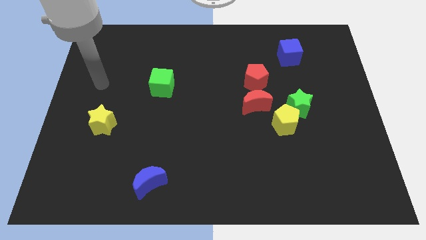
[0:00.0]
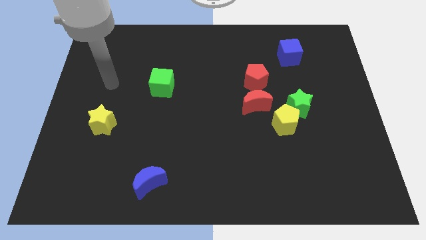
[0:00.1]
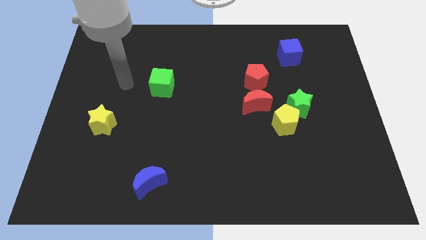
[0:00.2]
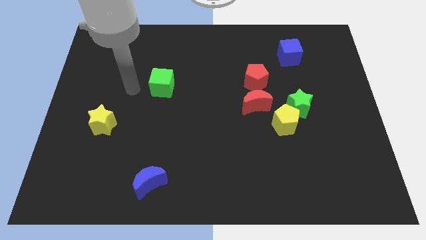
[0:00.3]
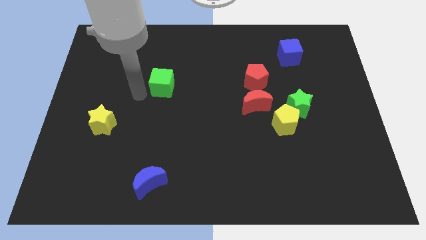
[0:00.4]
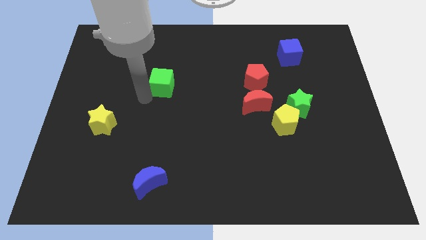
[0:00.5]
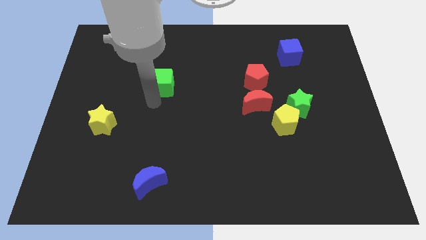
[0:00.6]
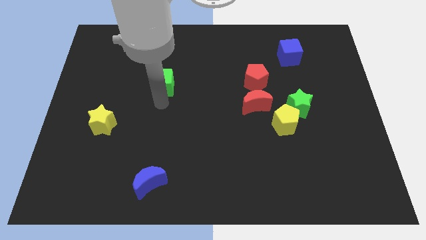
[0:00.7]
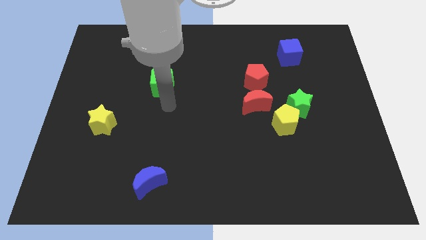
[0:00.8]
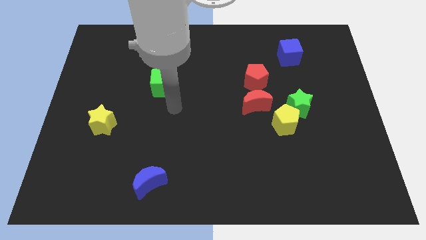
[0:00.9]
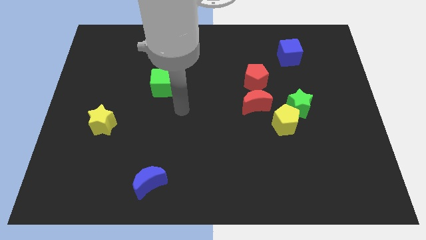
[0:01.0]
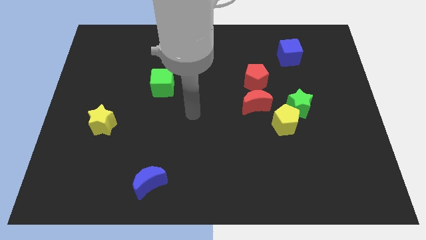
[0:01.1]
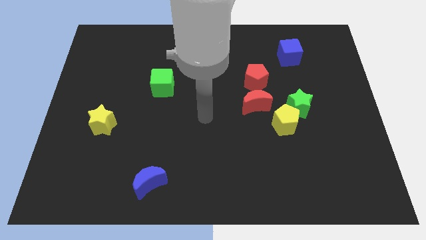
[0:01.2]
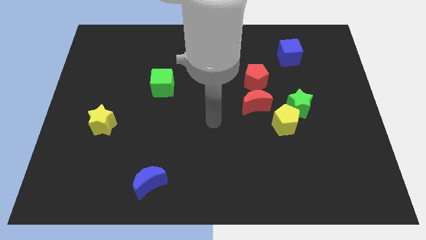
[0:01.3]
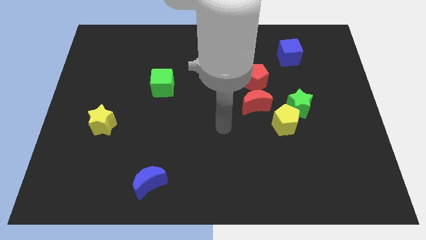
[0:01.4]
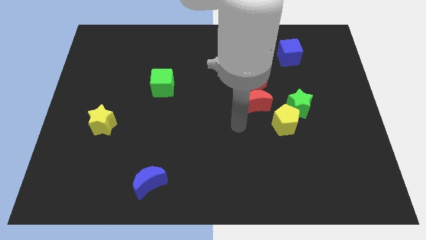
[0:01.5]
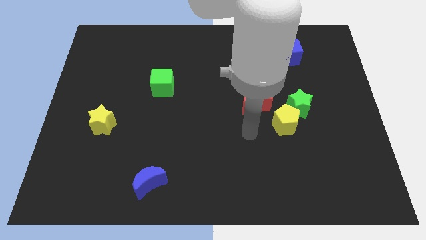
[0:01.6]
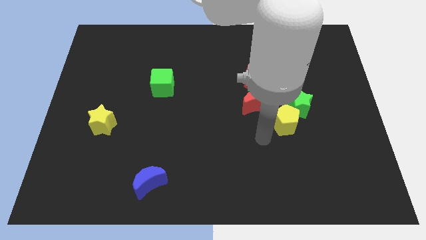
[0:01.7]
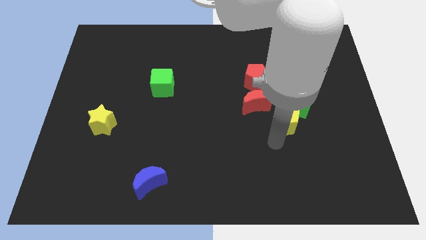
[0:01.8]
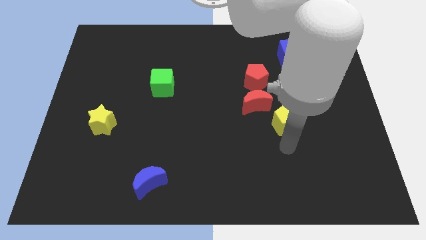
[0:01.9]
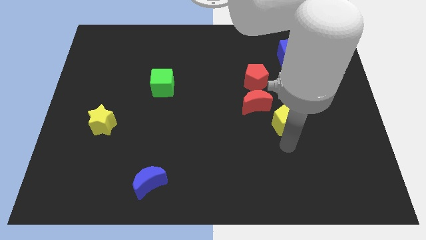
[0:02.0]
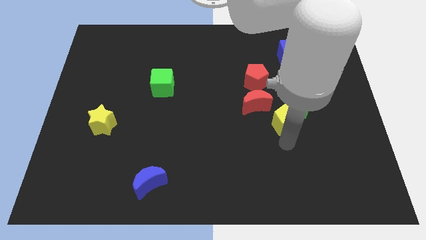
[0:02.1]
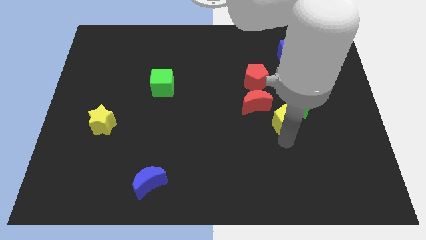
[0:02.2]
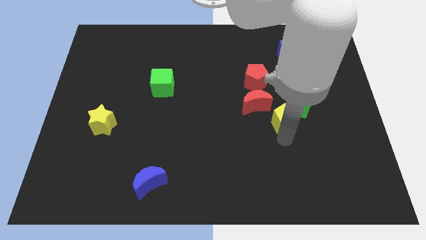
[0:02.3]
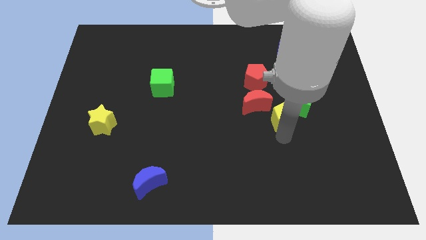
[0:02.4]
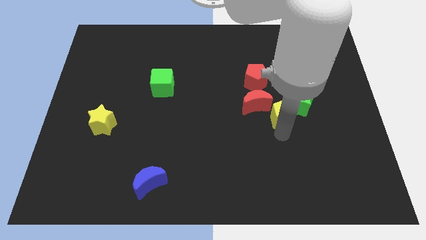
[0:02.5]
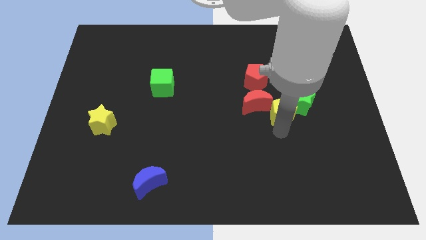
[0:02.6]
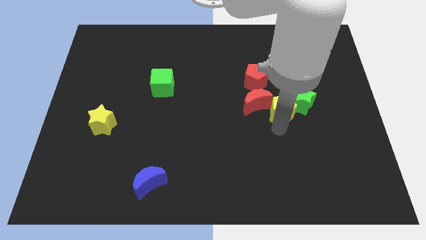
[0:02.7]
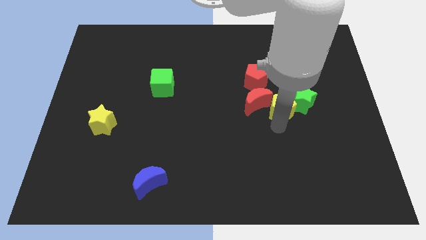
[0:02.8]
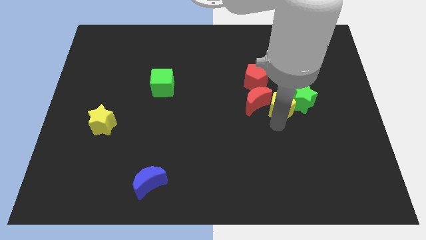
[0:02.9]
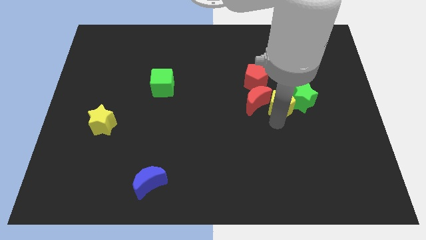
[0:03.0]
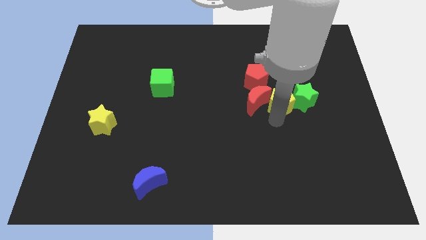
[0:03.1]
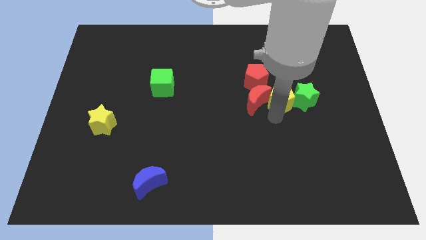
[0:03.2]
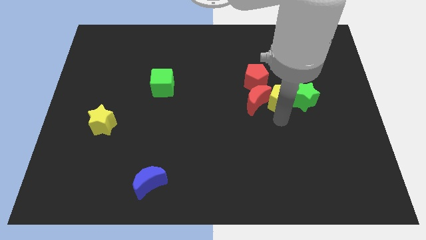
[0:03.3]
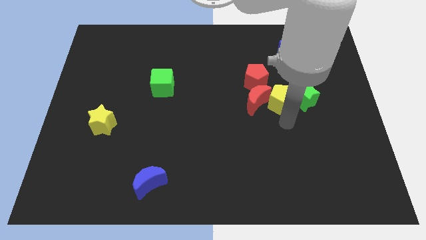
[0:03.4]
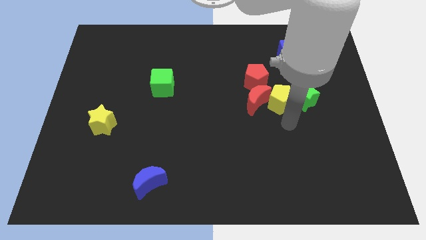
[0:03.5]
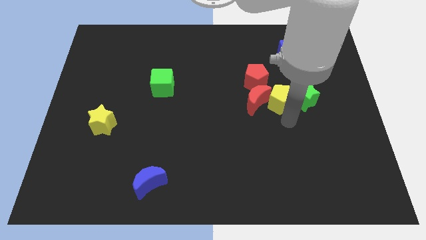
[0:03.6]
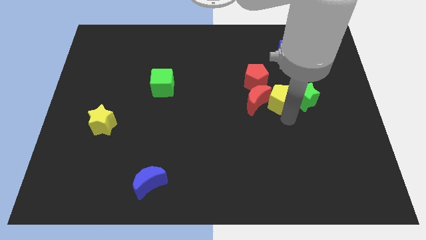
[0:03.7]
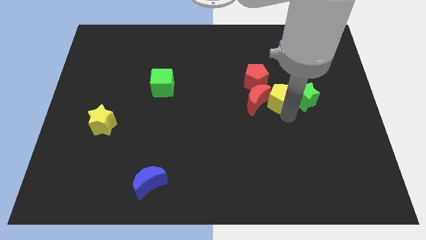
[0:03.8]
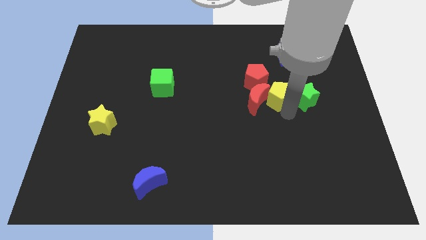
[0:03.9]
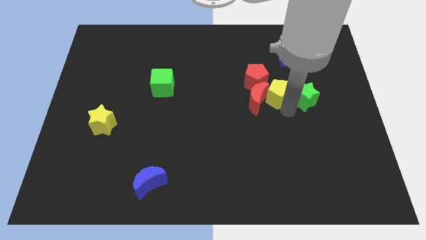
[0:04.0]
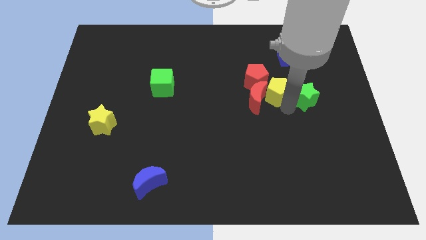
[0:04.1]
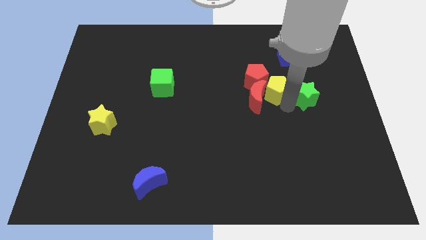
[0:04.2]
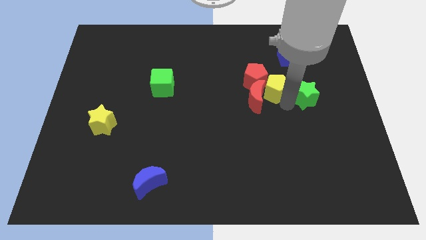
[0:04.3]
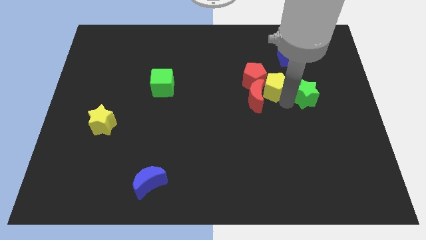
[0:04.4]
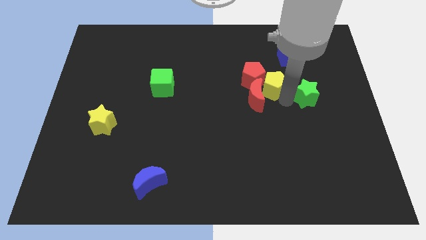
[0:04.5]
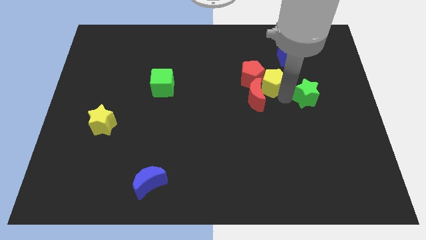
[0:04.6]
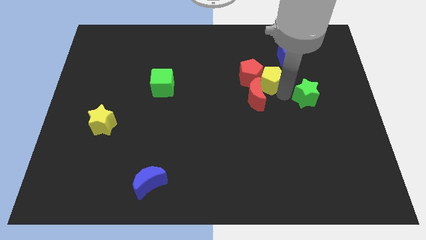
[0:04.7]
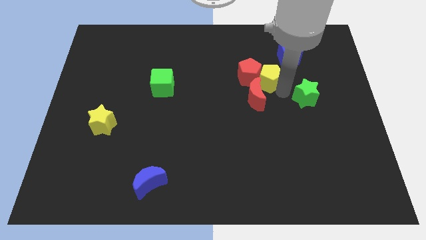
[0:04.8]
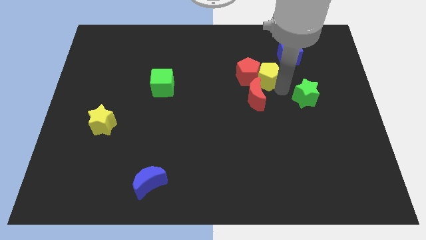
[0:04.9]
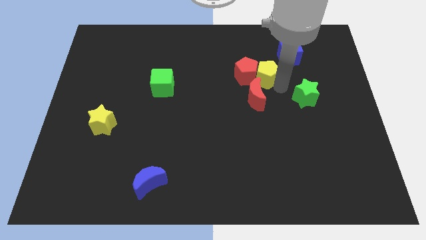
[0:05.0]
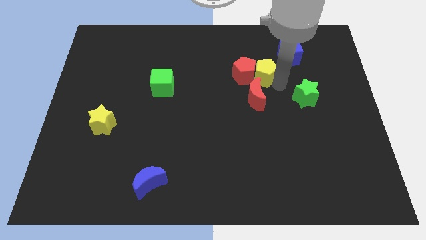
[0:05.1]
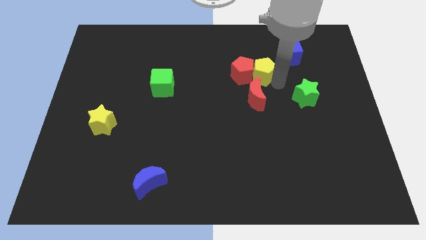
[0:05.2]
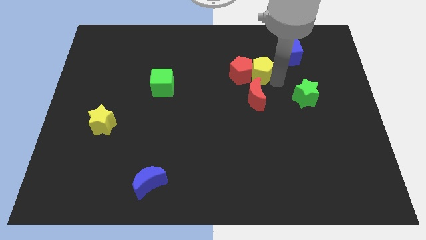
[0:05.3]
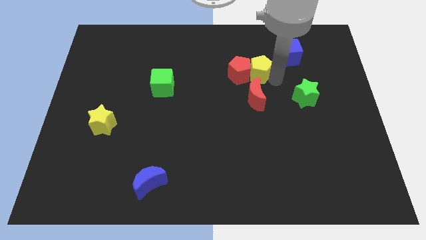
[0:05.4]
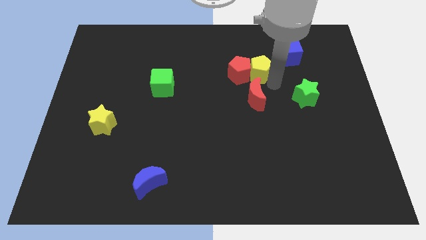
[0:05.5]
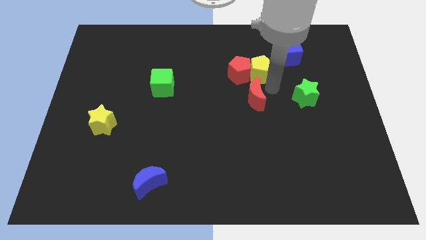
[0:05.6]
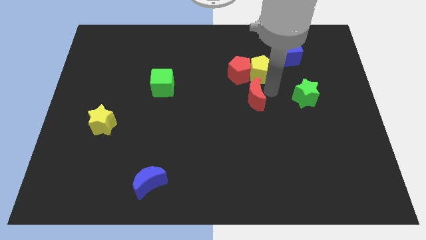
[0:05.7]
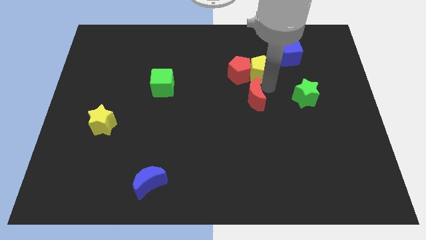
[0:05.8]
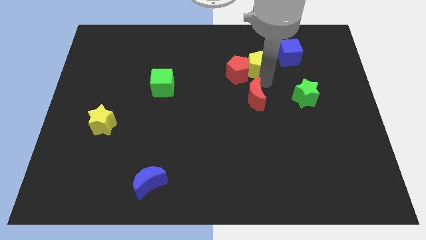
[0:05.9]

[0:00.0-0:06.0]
slide the yellow pentagon to the left side of the blue cube

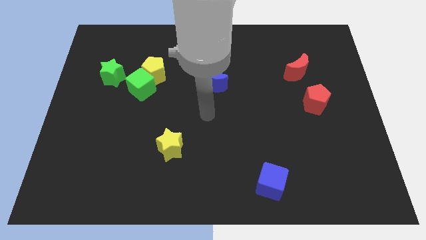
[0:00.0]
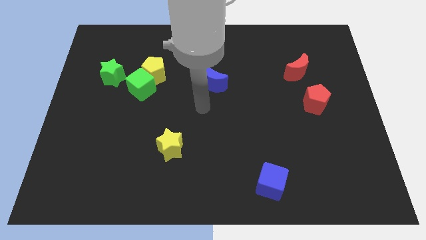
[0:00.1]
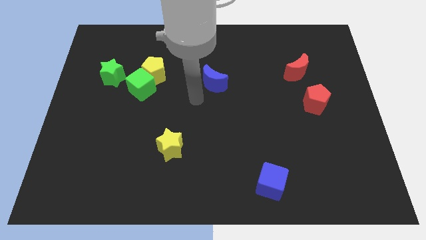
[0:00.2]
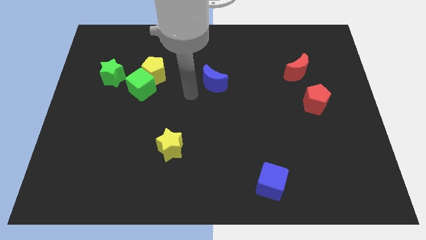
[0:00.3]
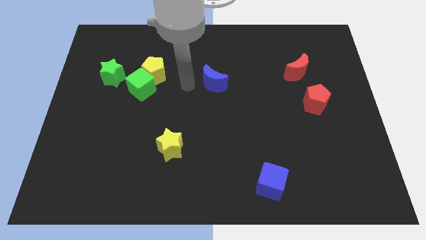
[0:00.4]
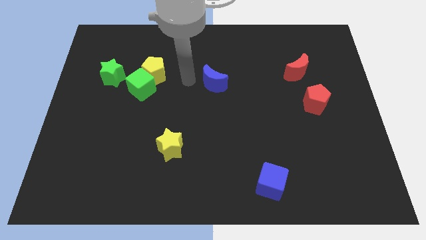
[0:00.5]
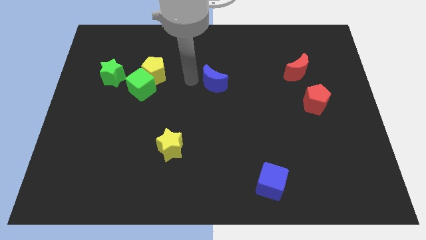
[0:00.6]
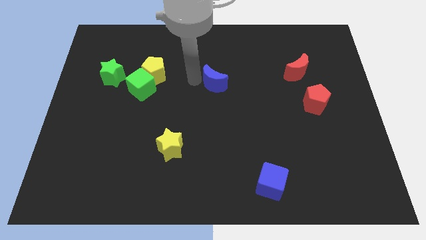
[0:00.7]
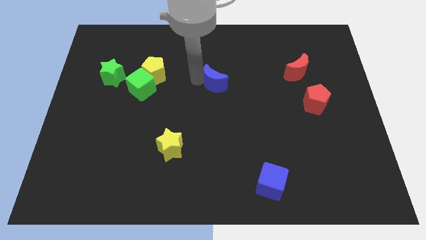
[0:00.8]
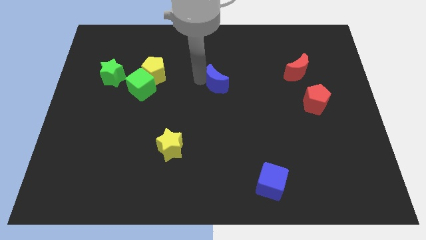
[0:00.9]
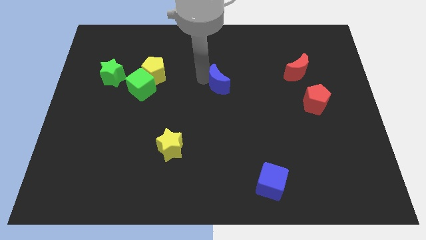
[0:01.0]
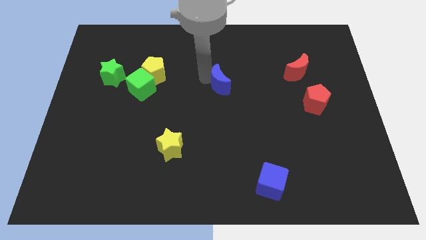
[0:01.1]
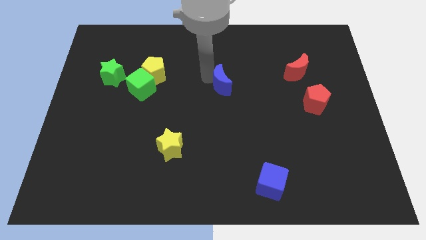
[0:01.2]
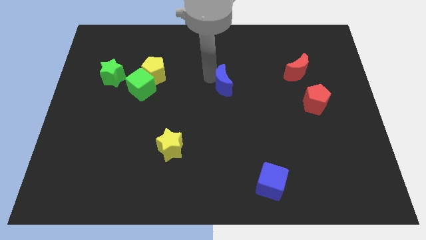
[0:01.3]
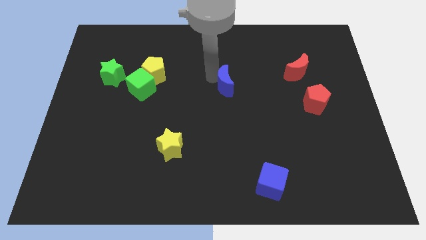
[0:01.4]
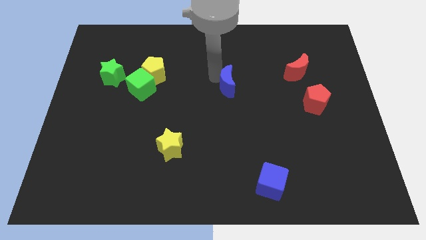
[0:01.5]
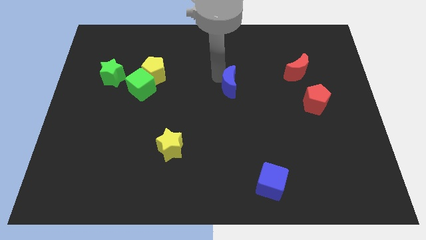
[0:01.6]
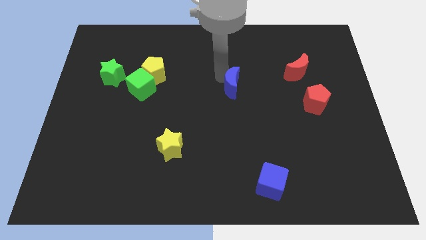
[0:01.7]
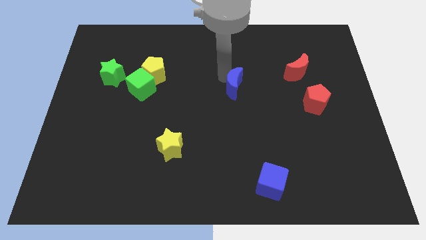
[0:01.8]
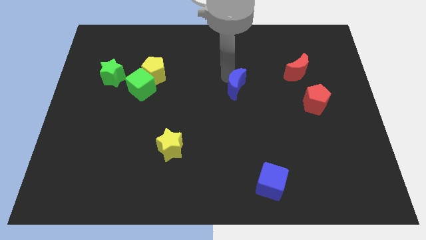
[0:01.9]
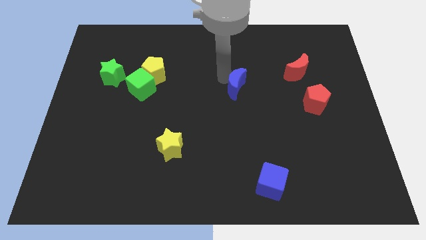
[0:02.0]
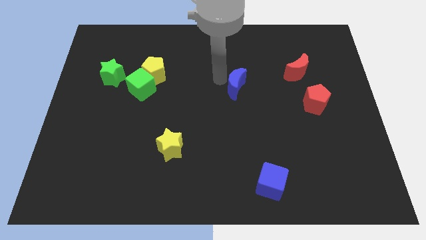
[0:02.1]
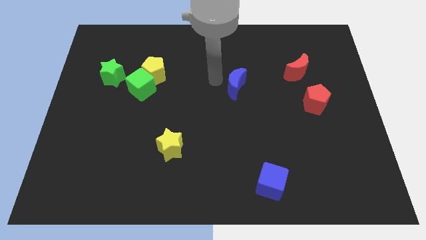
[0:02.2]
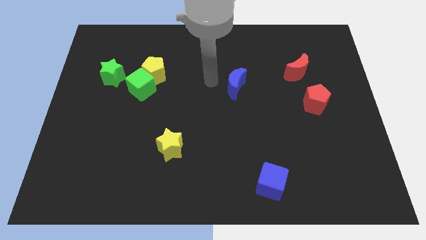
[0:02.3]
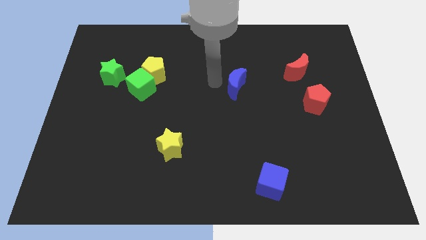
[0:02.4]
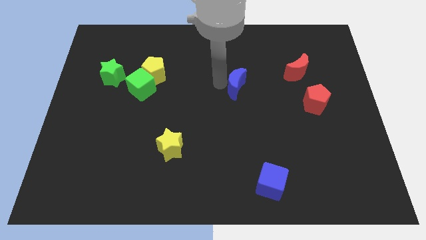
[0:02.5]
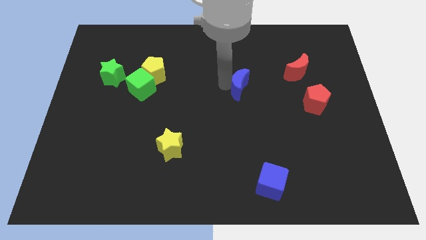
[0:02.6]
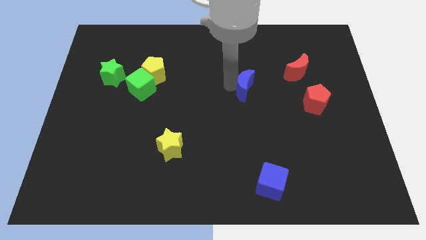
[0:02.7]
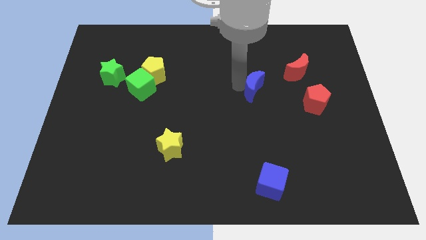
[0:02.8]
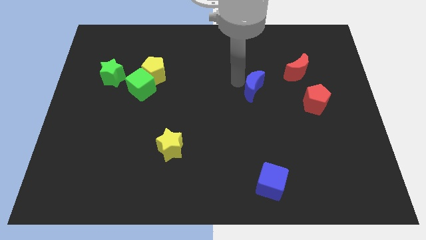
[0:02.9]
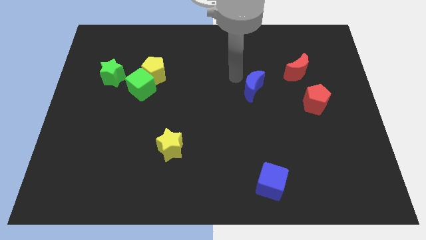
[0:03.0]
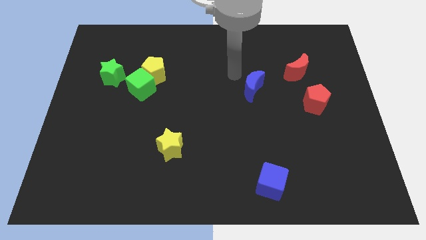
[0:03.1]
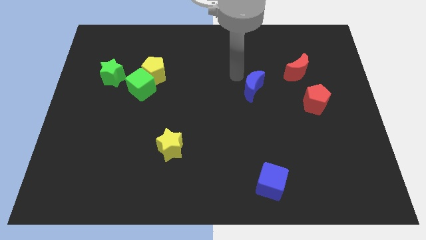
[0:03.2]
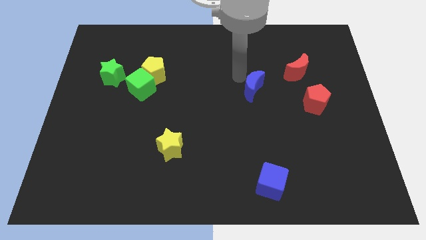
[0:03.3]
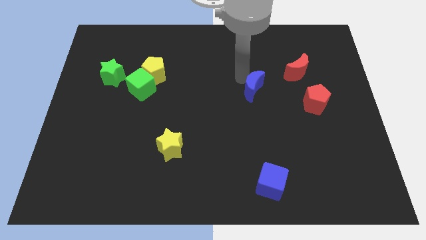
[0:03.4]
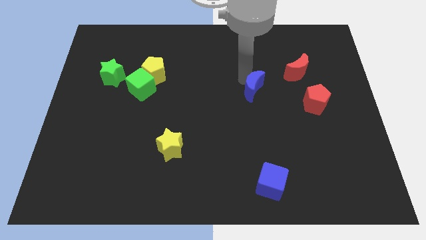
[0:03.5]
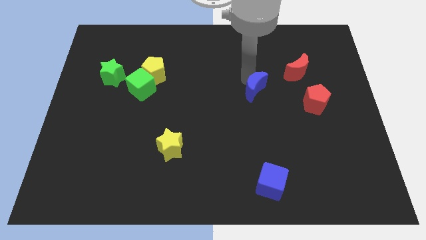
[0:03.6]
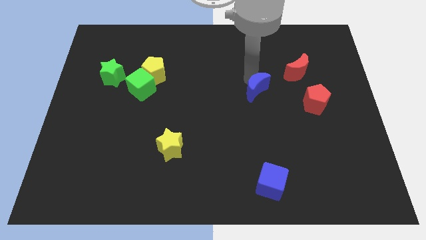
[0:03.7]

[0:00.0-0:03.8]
put the blue moon left of the red pentagon
